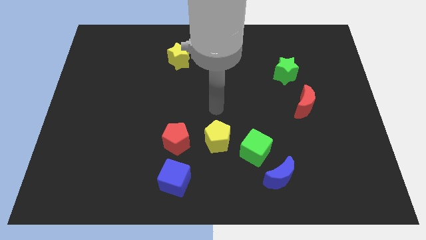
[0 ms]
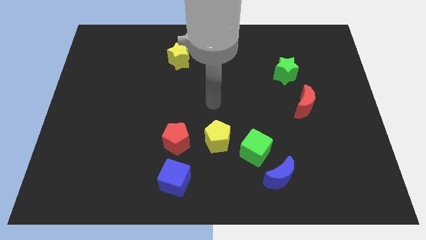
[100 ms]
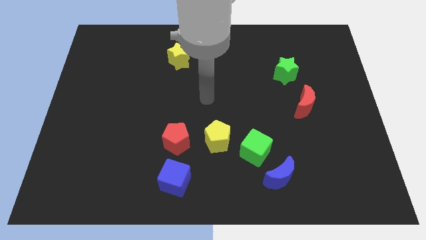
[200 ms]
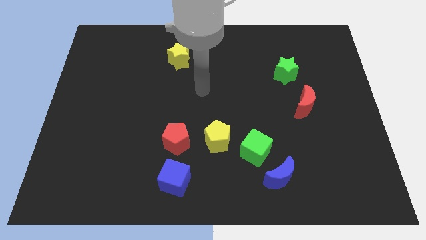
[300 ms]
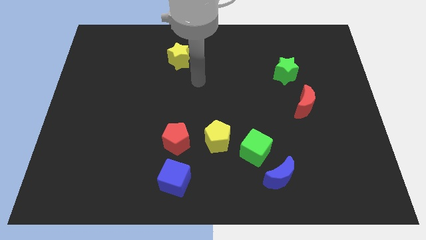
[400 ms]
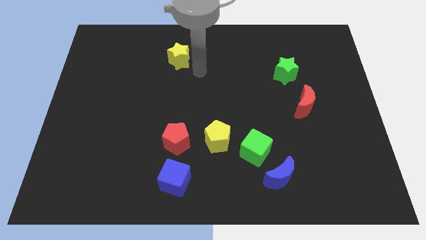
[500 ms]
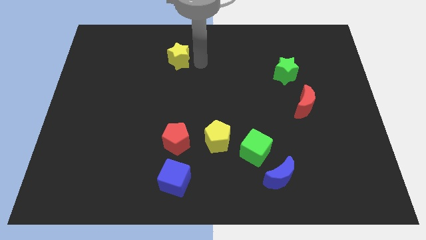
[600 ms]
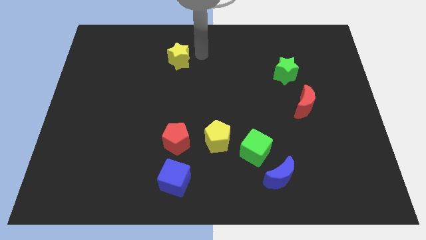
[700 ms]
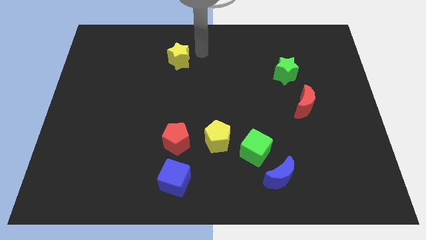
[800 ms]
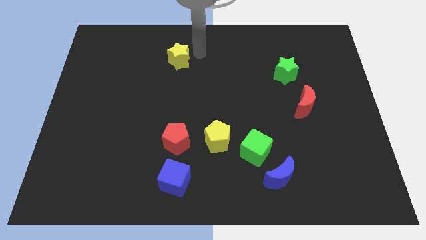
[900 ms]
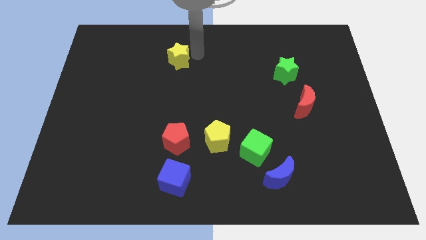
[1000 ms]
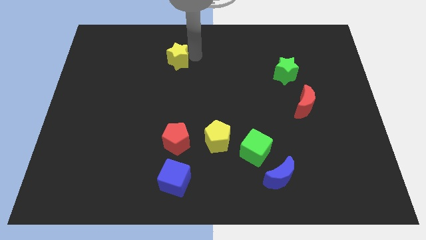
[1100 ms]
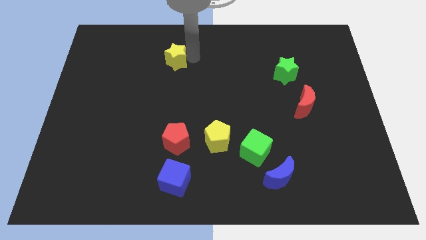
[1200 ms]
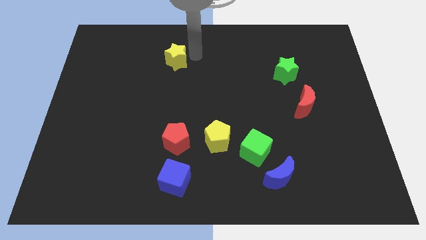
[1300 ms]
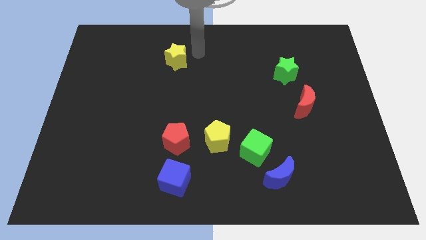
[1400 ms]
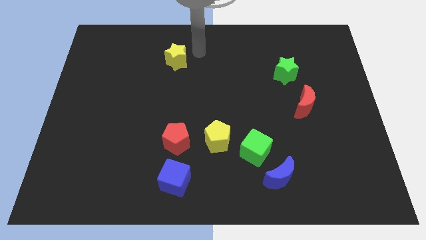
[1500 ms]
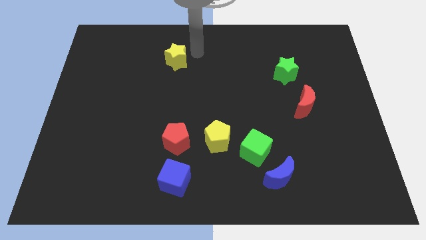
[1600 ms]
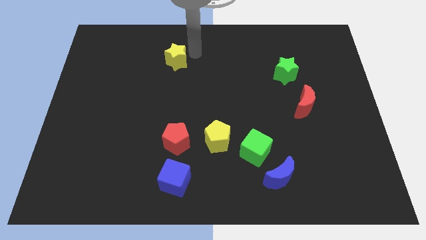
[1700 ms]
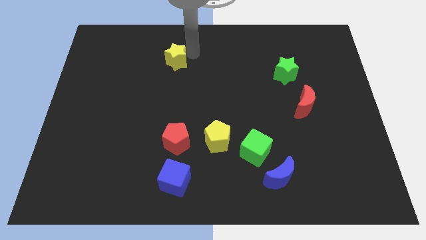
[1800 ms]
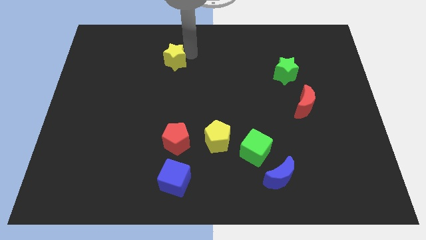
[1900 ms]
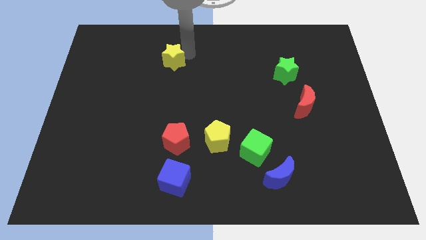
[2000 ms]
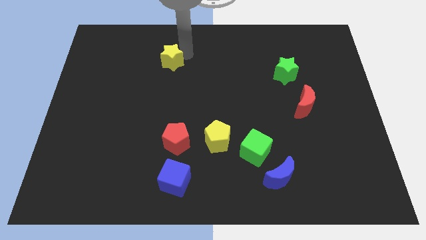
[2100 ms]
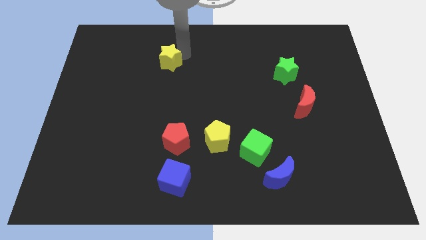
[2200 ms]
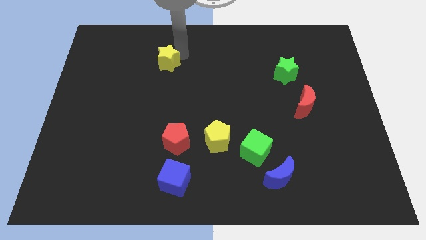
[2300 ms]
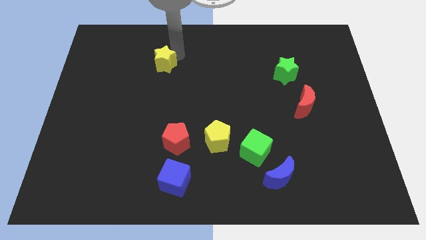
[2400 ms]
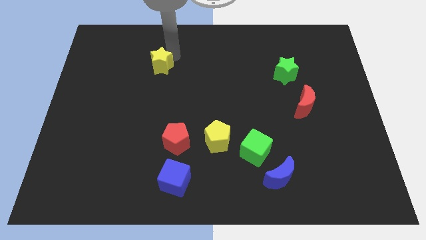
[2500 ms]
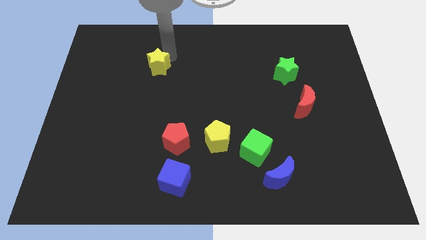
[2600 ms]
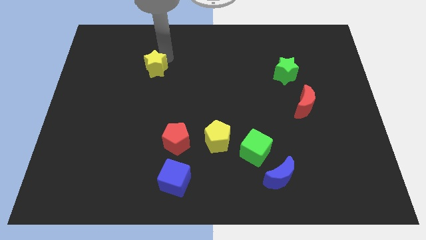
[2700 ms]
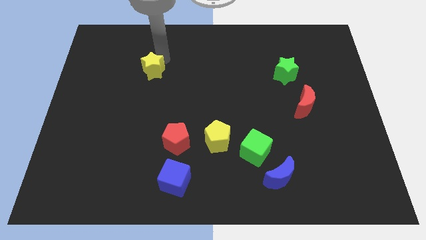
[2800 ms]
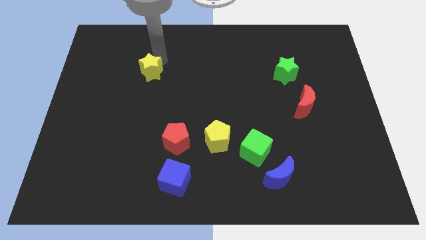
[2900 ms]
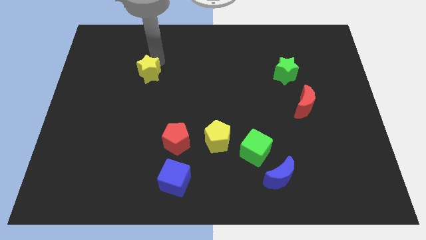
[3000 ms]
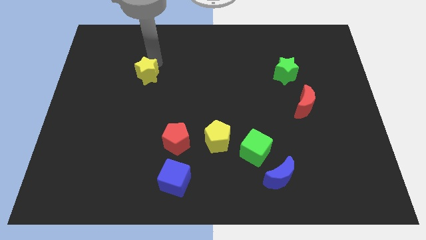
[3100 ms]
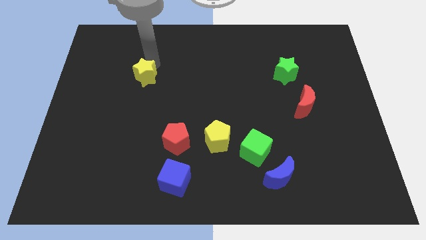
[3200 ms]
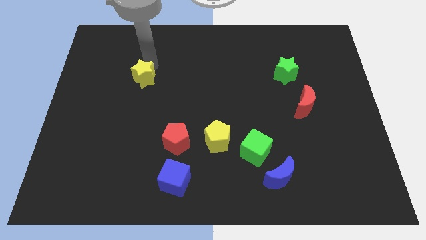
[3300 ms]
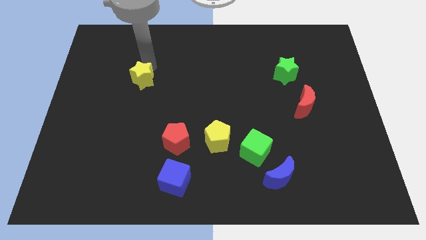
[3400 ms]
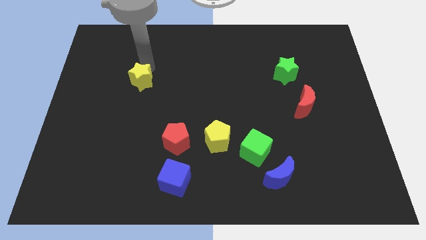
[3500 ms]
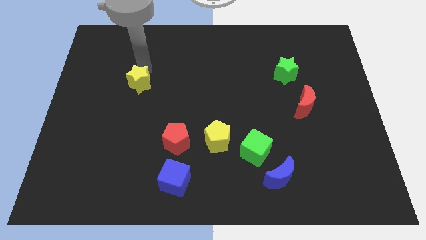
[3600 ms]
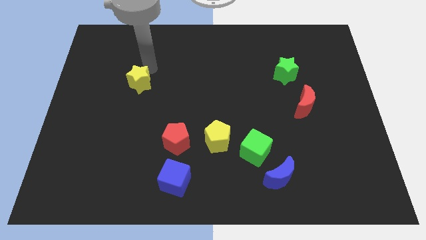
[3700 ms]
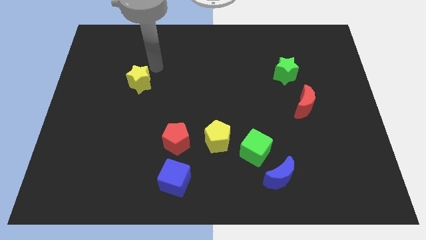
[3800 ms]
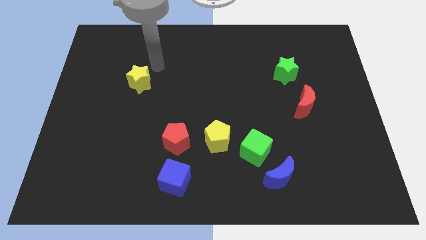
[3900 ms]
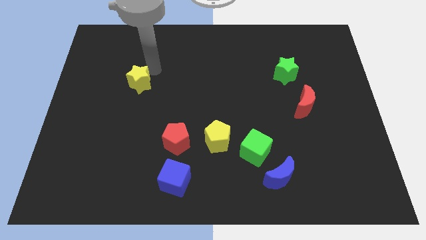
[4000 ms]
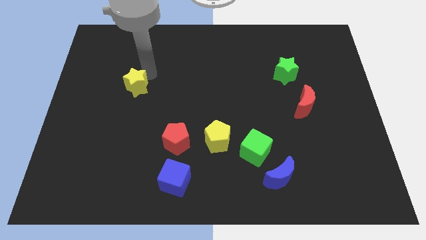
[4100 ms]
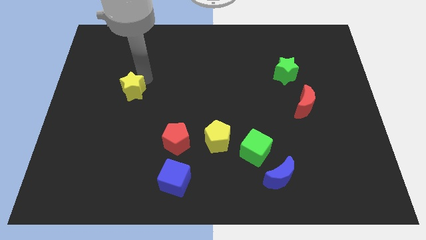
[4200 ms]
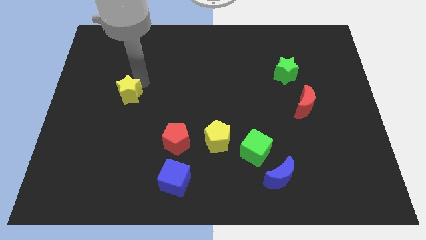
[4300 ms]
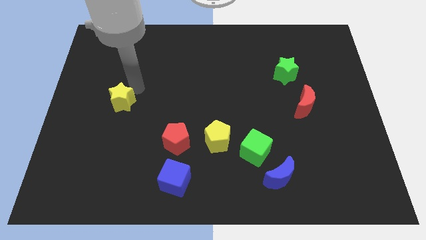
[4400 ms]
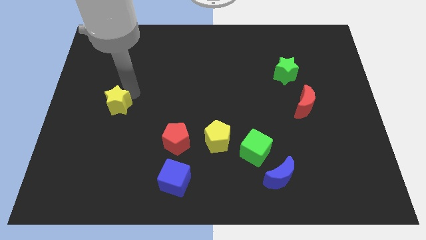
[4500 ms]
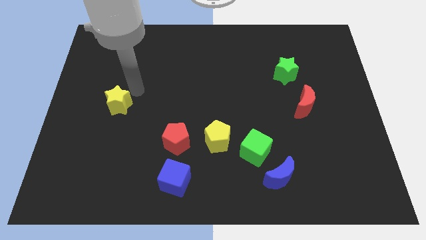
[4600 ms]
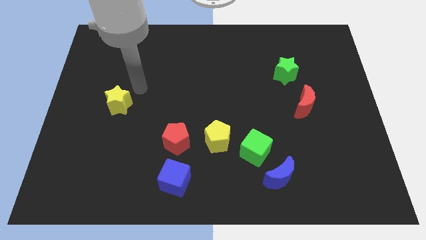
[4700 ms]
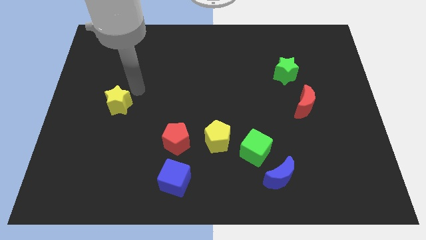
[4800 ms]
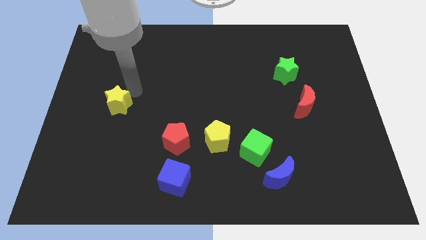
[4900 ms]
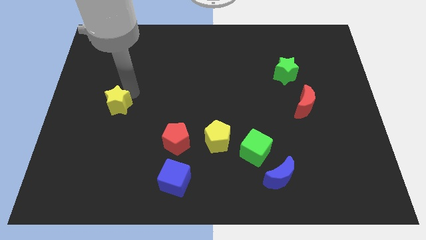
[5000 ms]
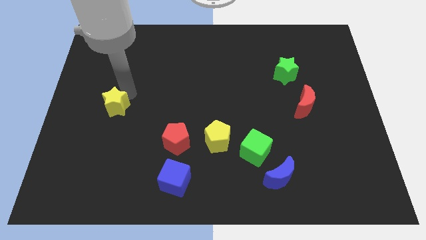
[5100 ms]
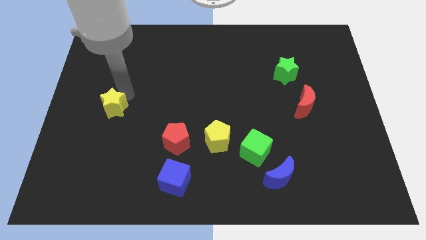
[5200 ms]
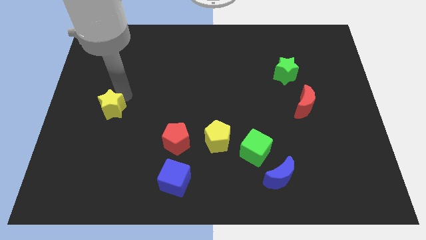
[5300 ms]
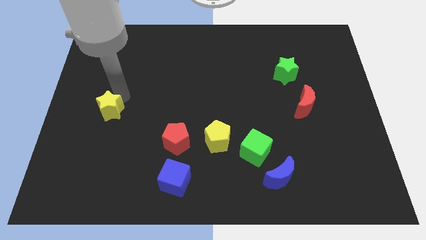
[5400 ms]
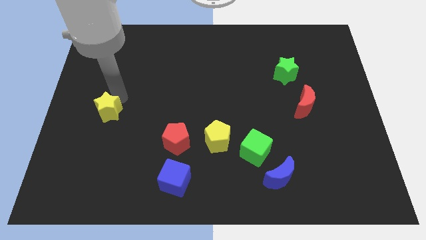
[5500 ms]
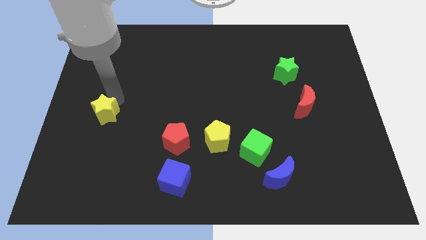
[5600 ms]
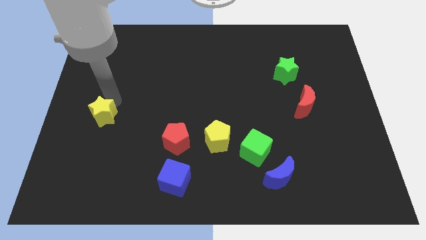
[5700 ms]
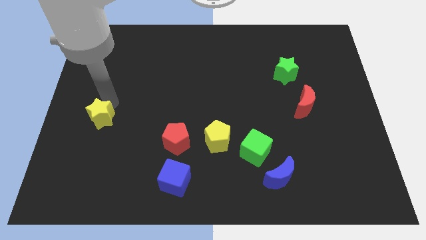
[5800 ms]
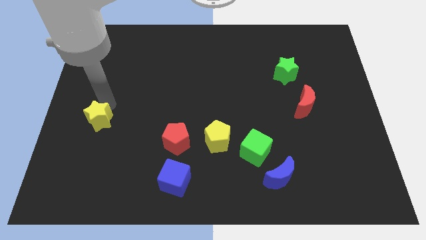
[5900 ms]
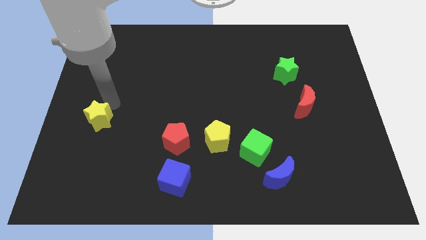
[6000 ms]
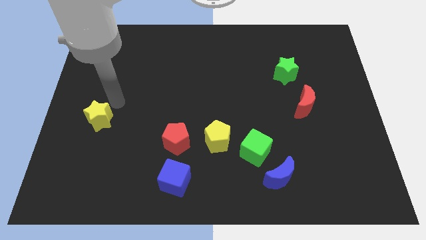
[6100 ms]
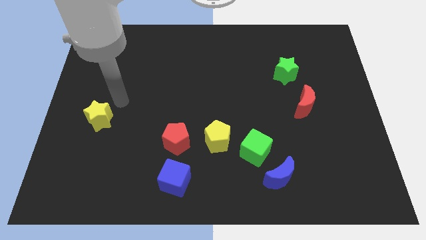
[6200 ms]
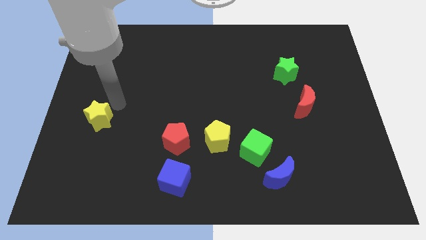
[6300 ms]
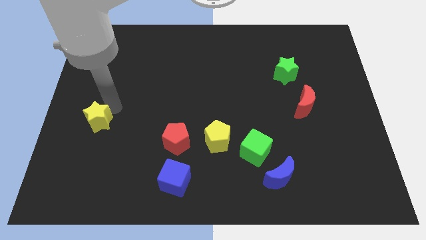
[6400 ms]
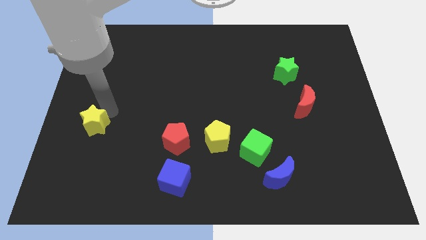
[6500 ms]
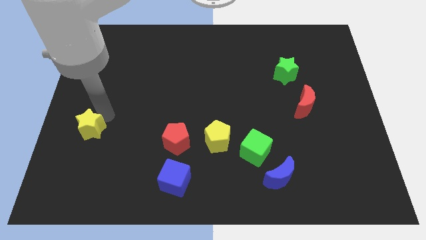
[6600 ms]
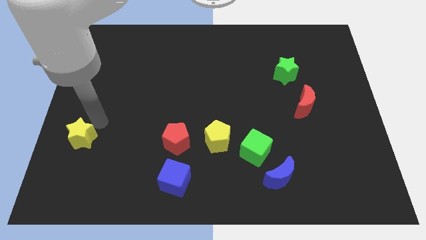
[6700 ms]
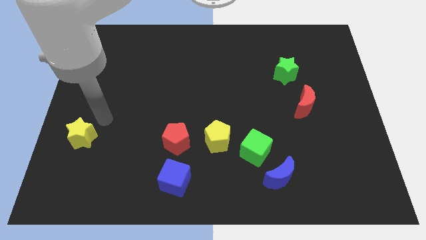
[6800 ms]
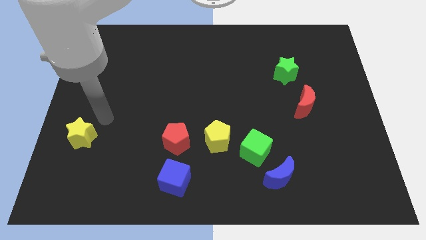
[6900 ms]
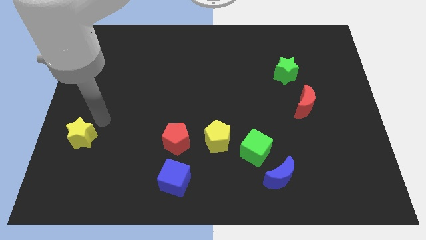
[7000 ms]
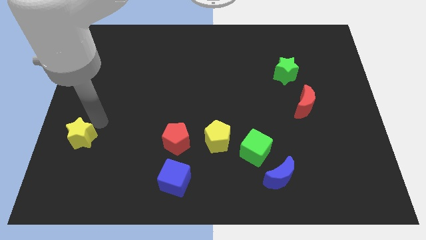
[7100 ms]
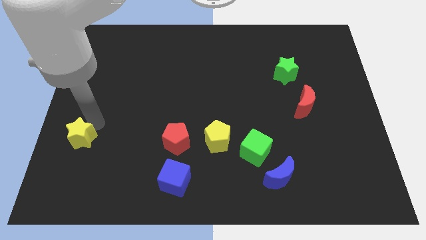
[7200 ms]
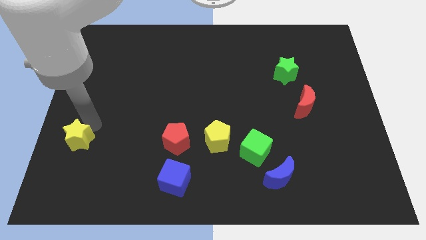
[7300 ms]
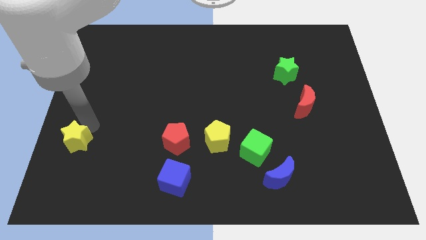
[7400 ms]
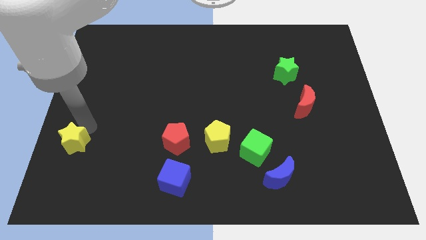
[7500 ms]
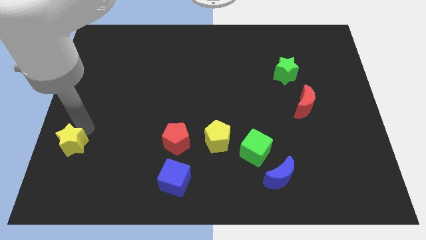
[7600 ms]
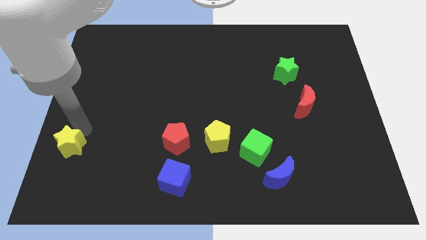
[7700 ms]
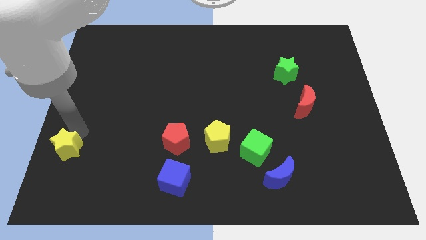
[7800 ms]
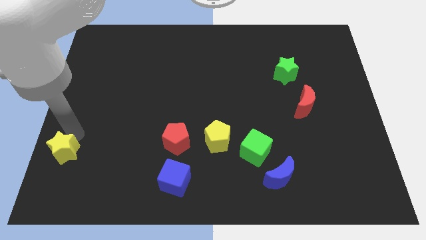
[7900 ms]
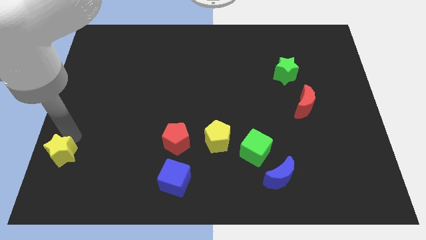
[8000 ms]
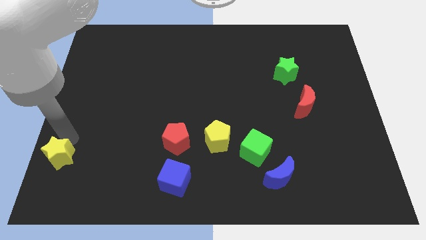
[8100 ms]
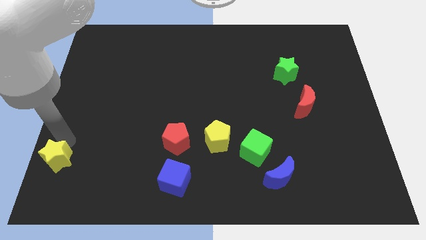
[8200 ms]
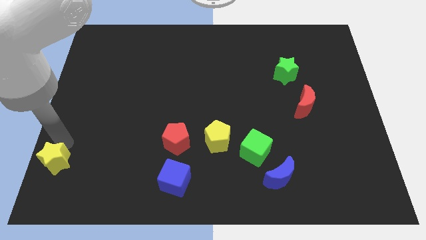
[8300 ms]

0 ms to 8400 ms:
move the yellow star to the bottom left of the board
